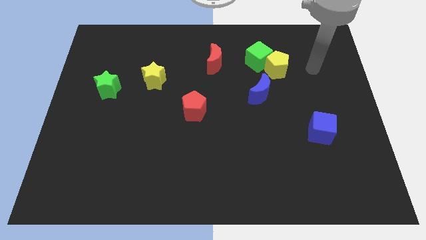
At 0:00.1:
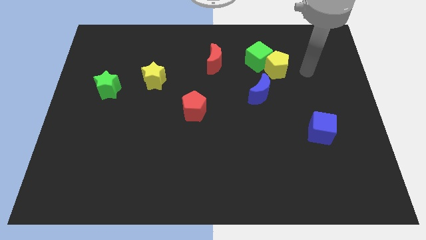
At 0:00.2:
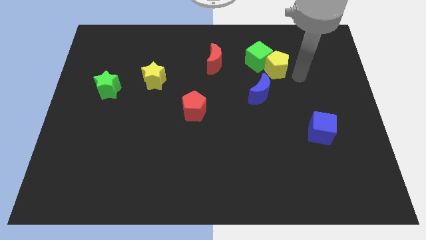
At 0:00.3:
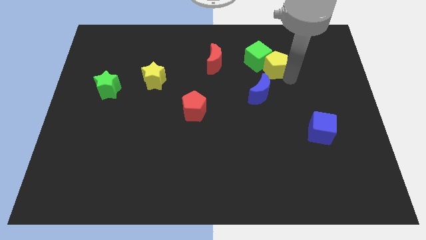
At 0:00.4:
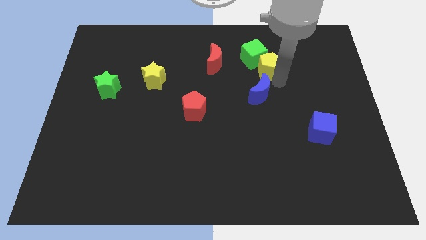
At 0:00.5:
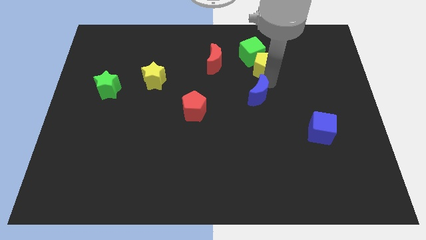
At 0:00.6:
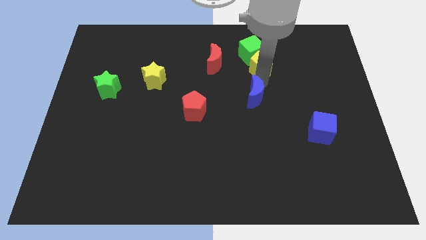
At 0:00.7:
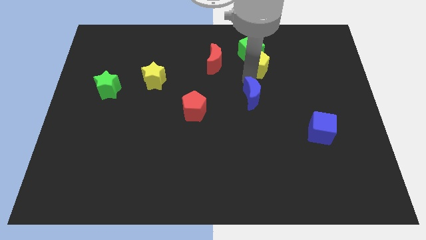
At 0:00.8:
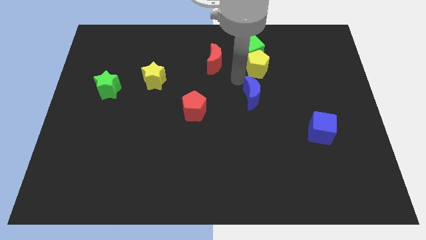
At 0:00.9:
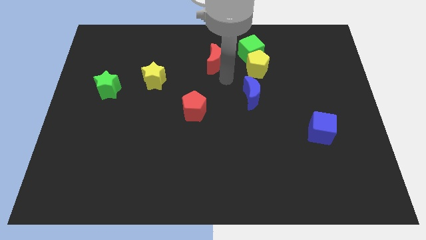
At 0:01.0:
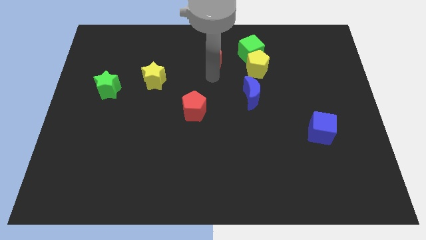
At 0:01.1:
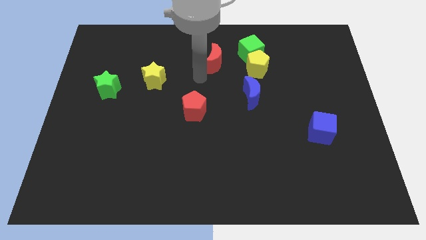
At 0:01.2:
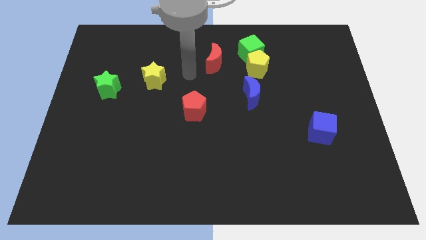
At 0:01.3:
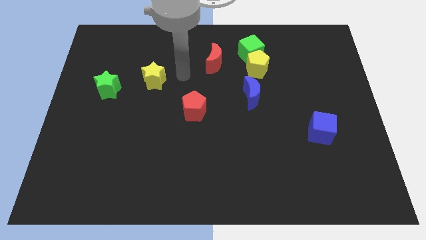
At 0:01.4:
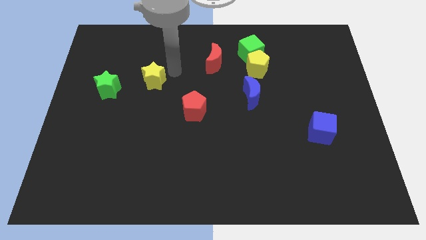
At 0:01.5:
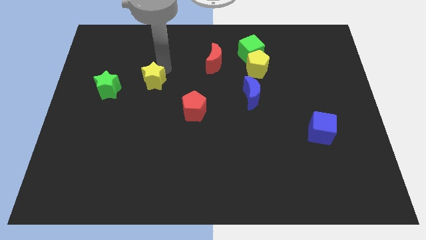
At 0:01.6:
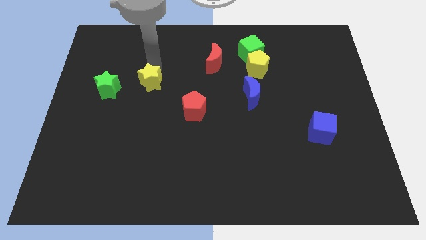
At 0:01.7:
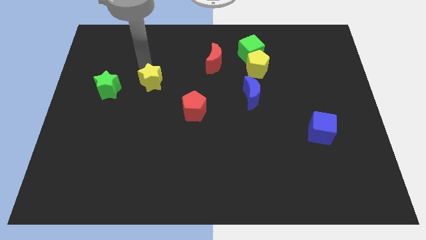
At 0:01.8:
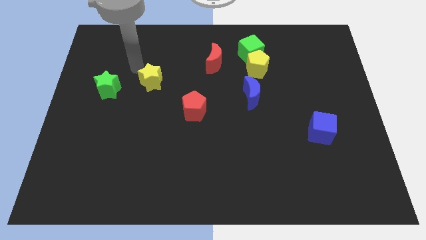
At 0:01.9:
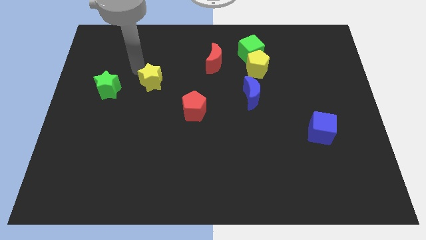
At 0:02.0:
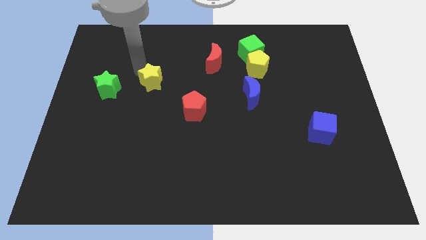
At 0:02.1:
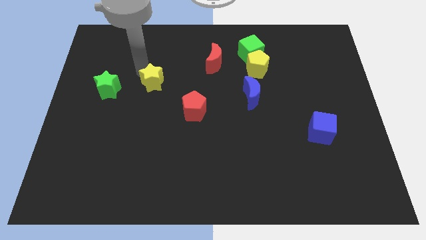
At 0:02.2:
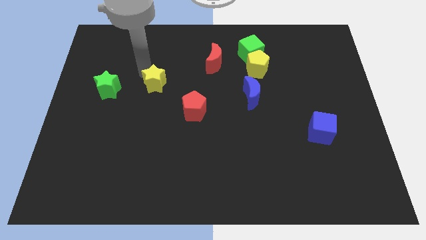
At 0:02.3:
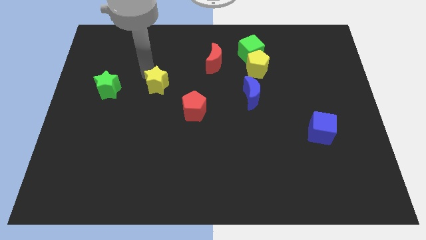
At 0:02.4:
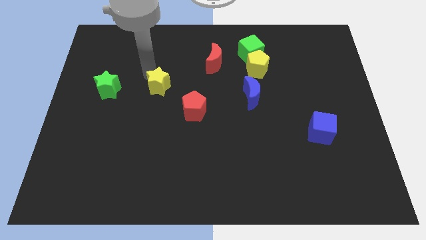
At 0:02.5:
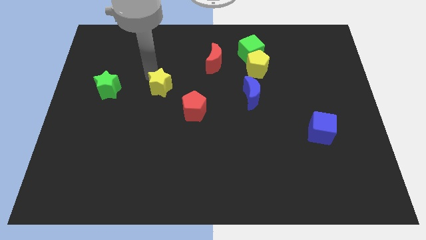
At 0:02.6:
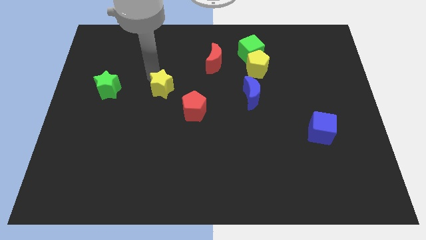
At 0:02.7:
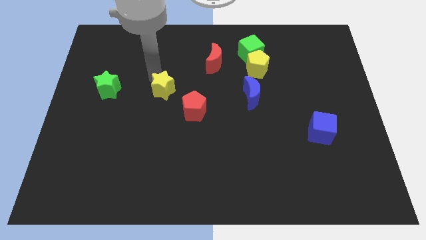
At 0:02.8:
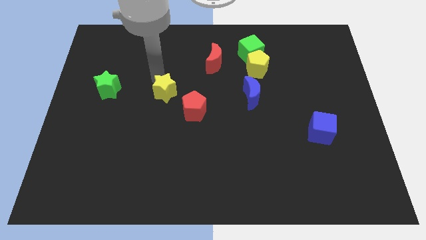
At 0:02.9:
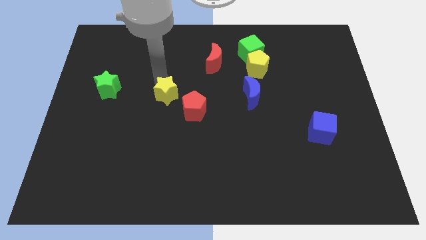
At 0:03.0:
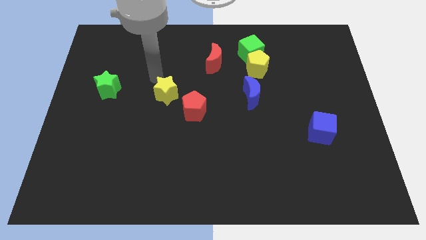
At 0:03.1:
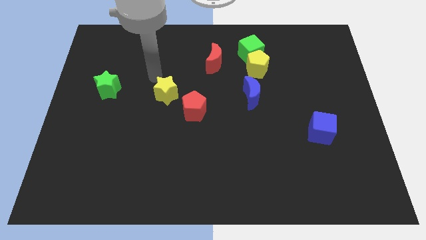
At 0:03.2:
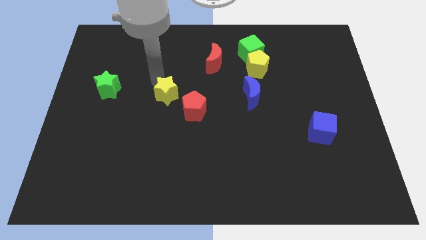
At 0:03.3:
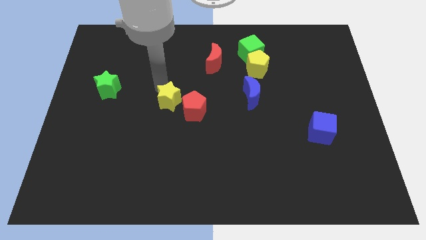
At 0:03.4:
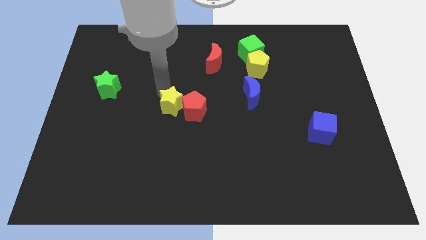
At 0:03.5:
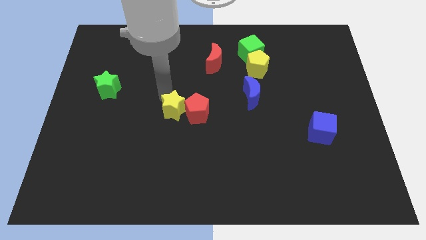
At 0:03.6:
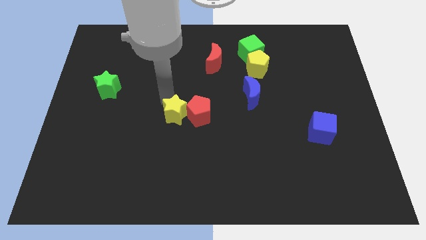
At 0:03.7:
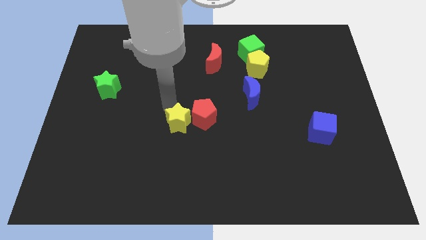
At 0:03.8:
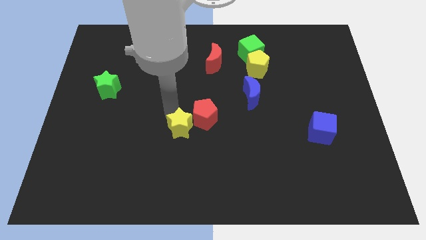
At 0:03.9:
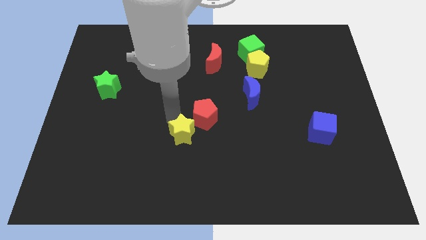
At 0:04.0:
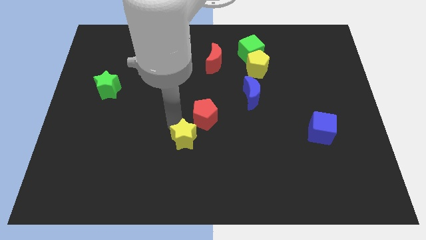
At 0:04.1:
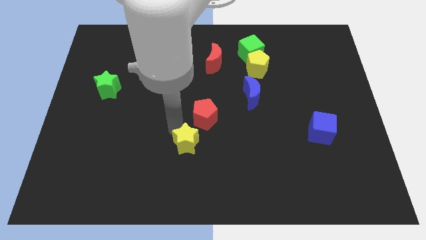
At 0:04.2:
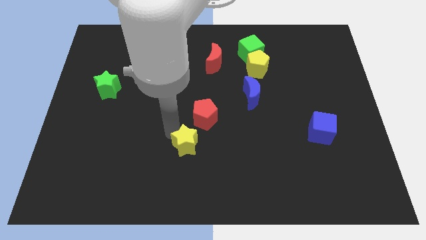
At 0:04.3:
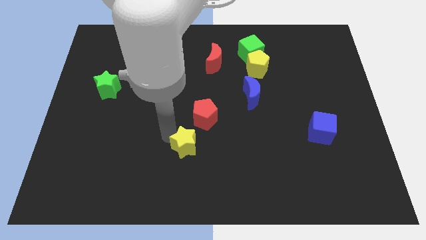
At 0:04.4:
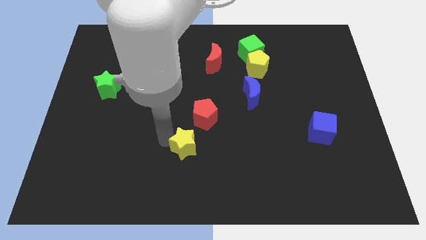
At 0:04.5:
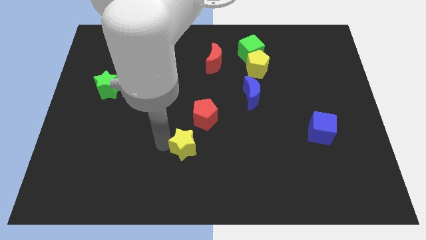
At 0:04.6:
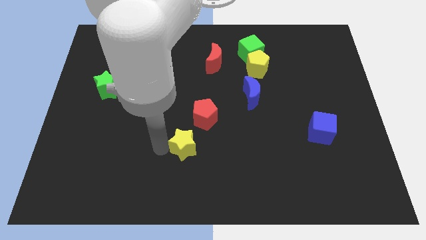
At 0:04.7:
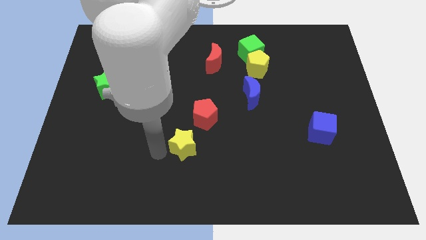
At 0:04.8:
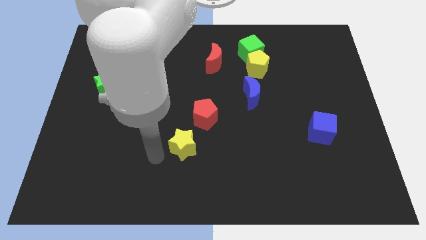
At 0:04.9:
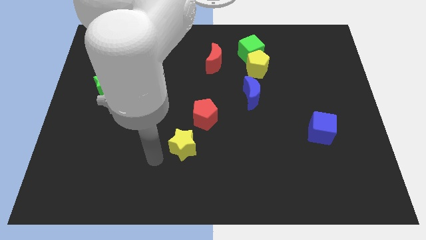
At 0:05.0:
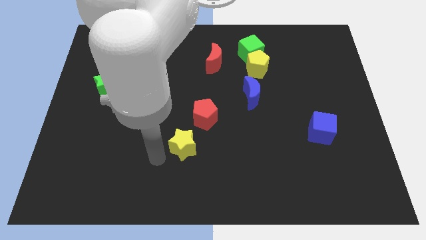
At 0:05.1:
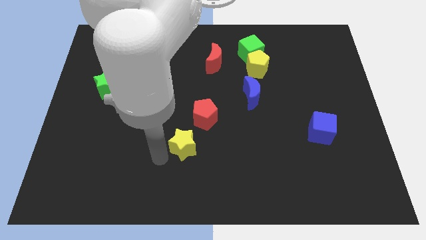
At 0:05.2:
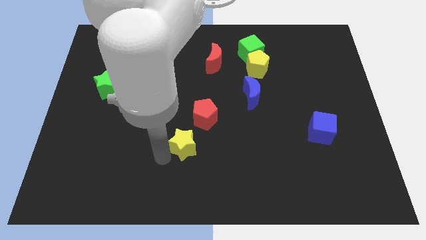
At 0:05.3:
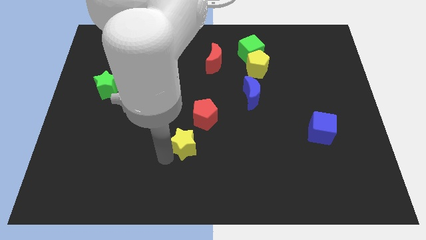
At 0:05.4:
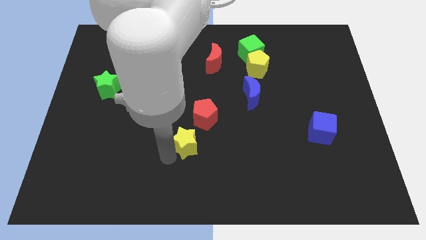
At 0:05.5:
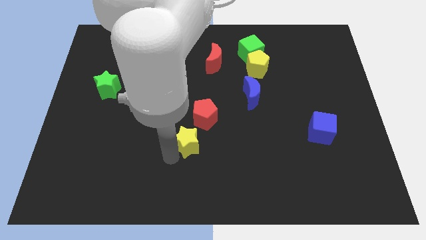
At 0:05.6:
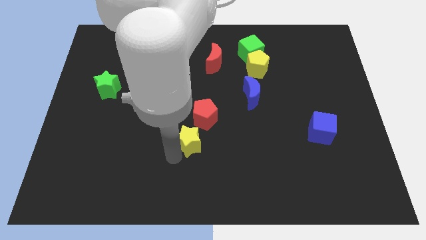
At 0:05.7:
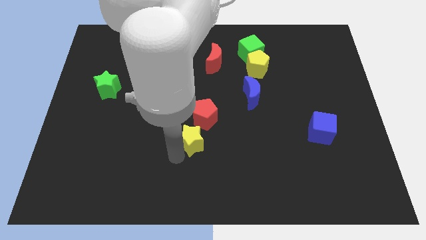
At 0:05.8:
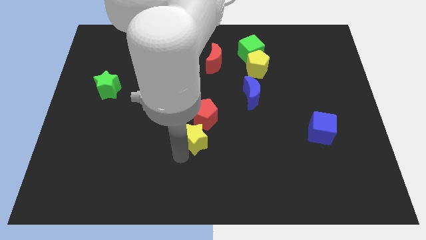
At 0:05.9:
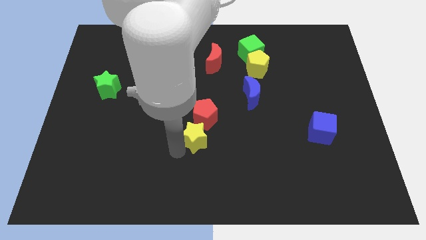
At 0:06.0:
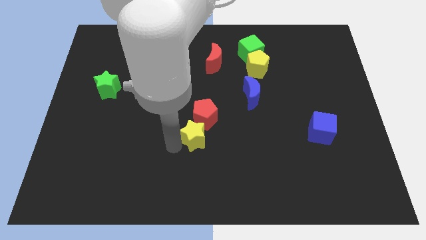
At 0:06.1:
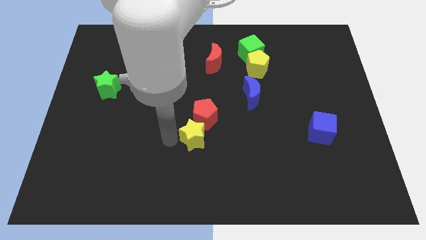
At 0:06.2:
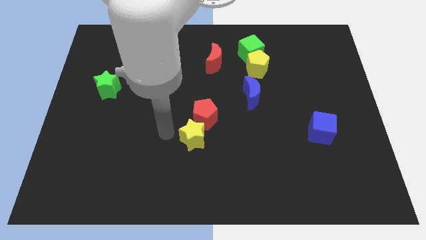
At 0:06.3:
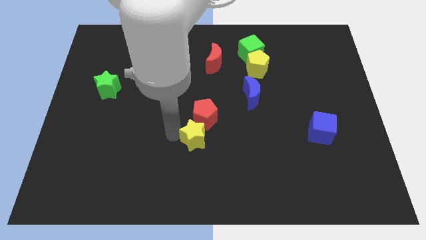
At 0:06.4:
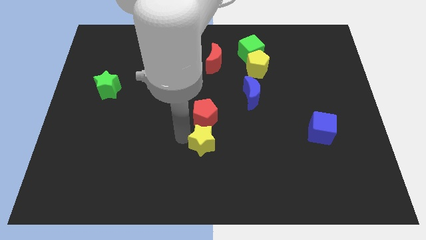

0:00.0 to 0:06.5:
move the yellow star downwards and then right

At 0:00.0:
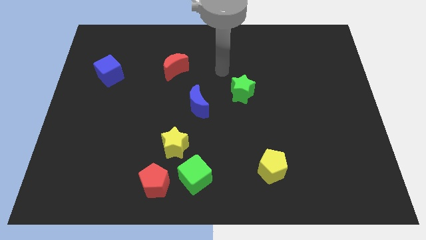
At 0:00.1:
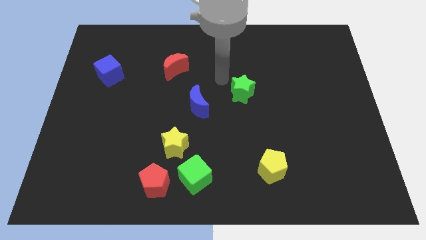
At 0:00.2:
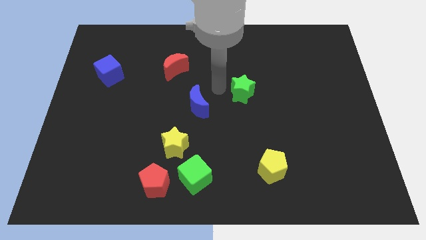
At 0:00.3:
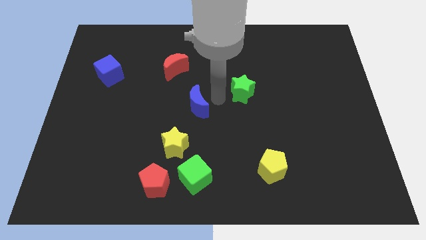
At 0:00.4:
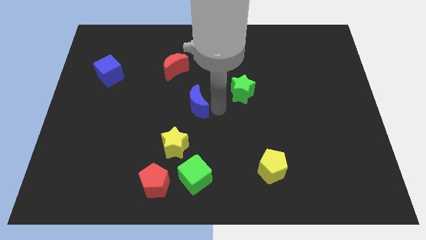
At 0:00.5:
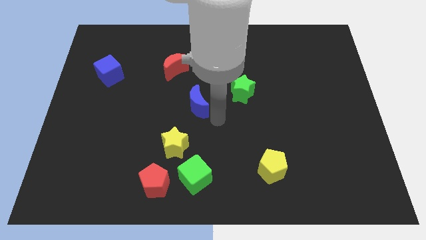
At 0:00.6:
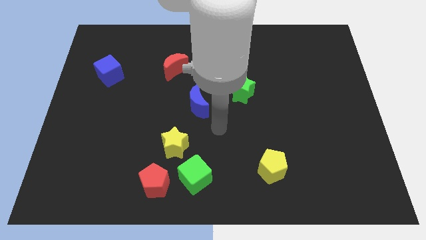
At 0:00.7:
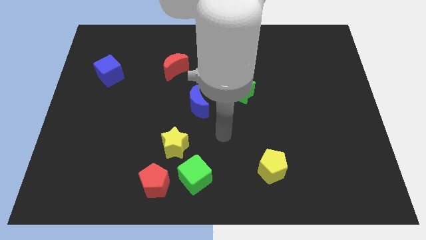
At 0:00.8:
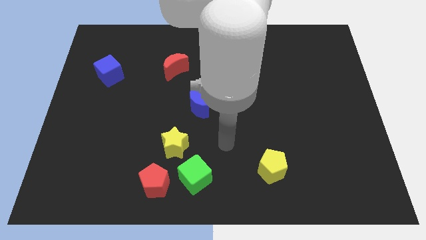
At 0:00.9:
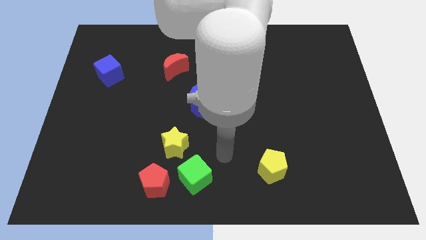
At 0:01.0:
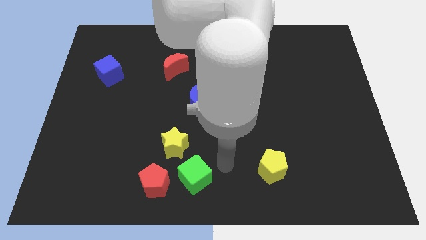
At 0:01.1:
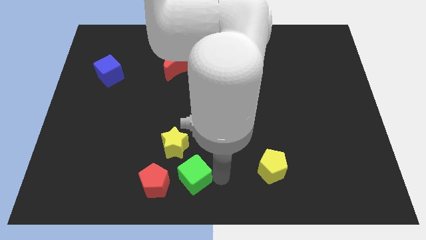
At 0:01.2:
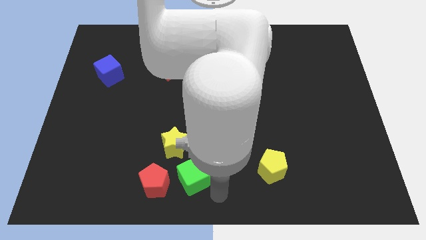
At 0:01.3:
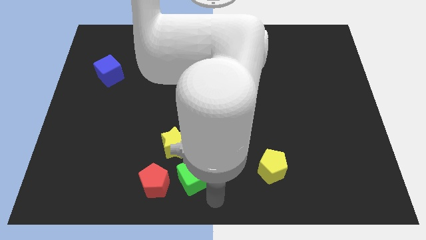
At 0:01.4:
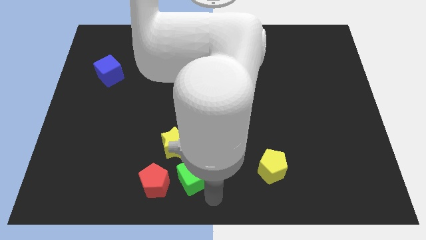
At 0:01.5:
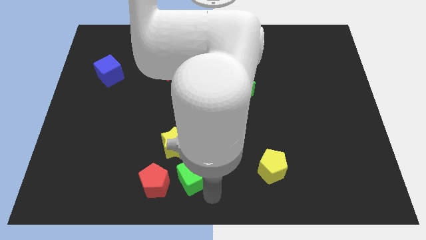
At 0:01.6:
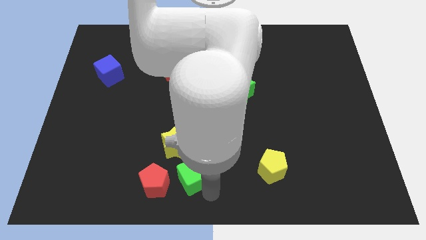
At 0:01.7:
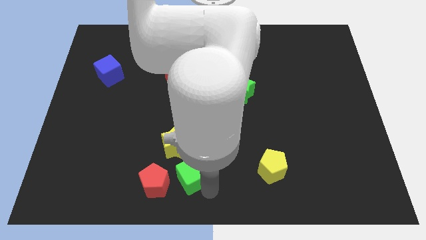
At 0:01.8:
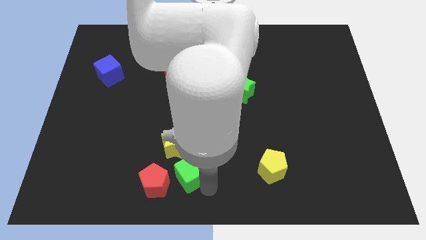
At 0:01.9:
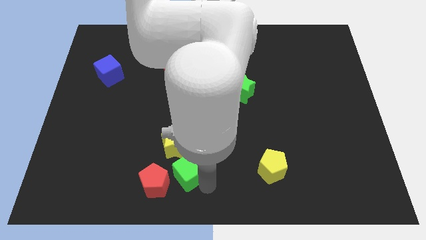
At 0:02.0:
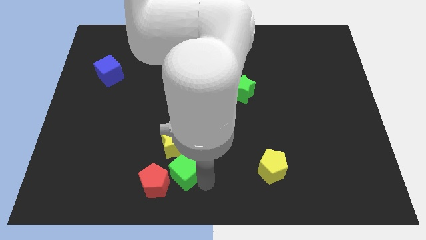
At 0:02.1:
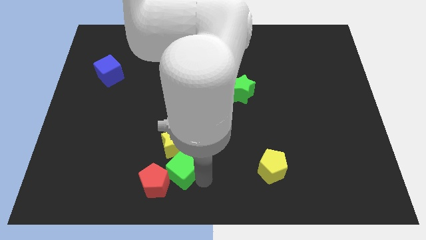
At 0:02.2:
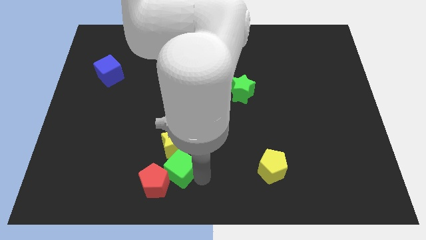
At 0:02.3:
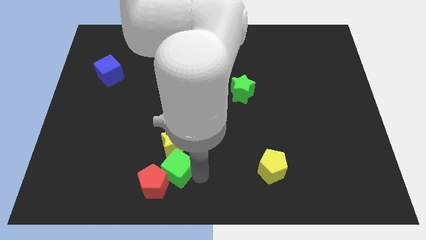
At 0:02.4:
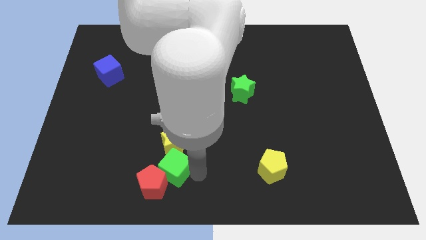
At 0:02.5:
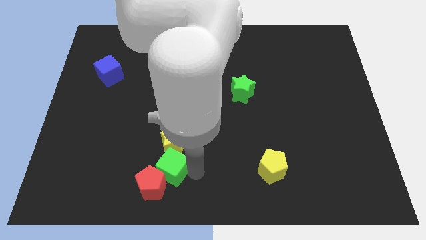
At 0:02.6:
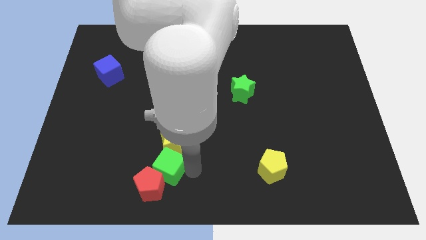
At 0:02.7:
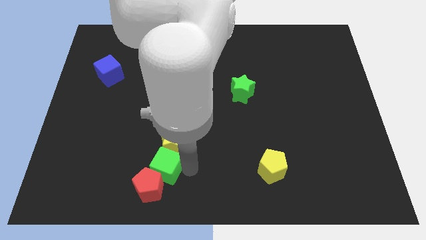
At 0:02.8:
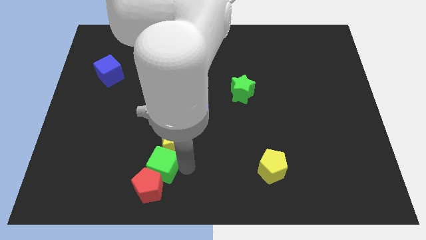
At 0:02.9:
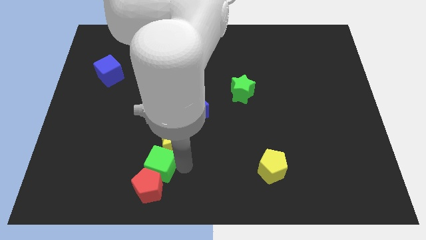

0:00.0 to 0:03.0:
move the green cube somewhat left
